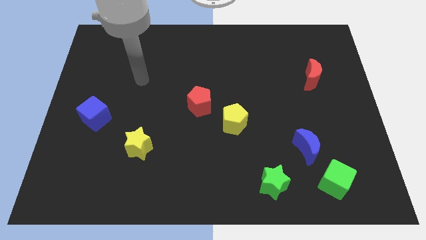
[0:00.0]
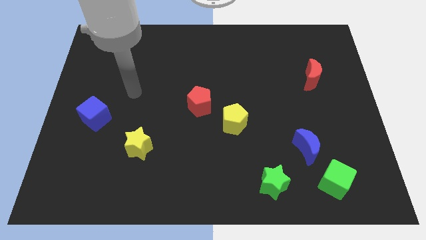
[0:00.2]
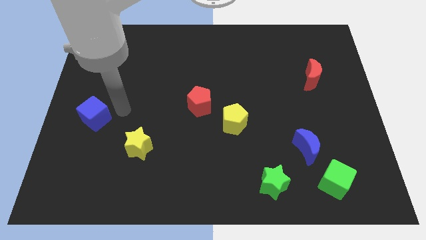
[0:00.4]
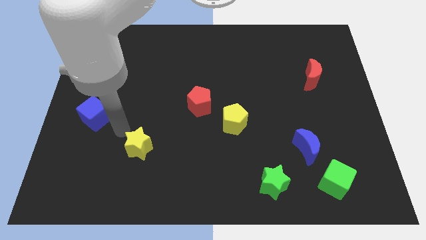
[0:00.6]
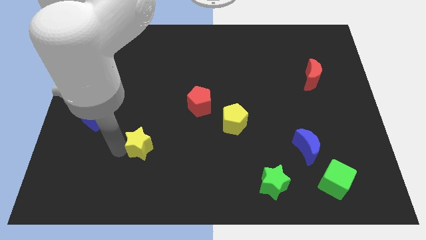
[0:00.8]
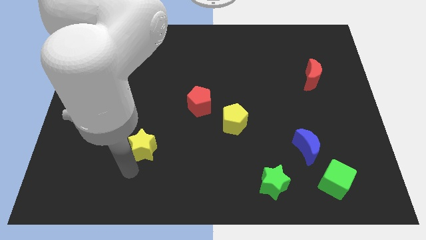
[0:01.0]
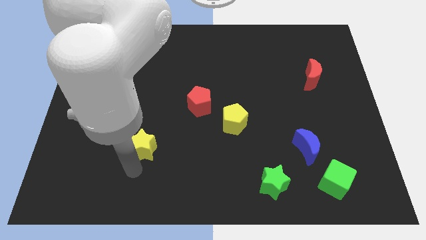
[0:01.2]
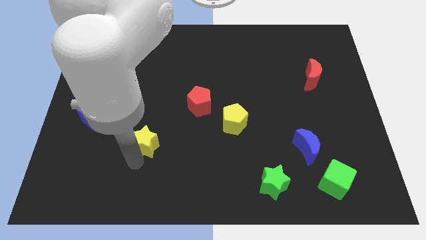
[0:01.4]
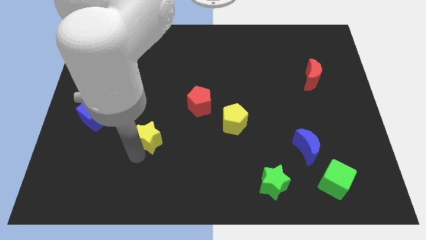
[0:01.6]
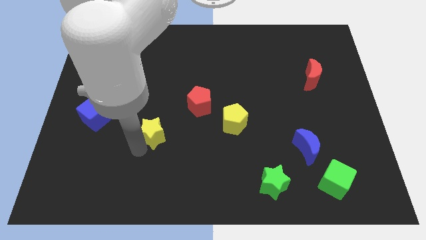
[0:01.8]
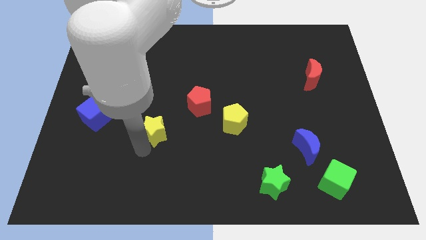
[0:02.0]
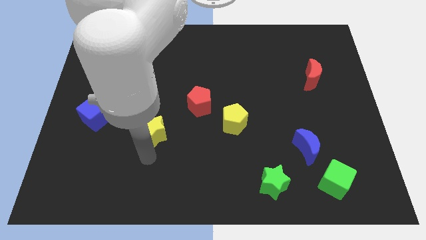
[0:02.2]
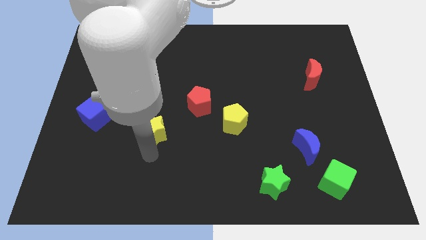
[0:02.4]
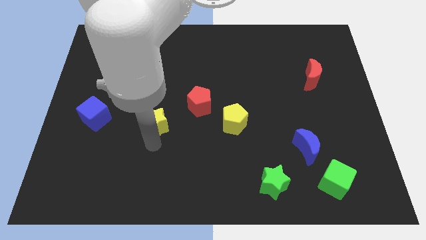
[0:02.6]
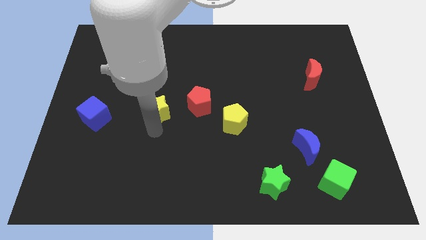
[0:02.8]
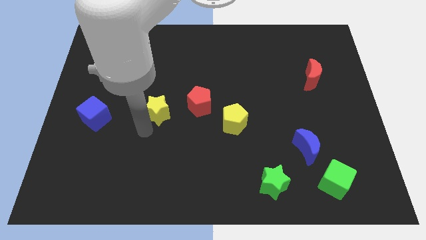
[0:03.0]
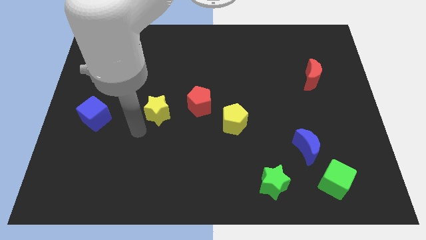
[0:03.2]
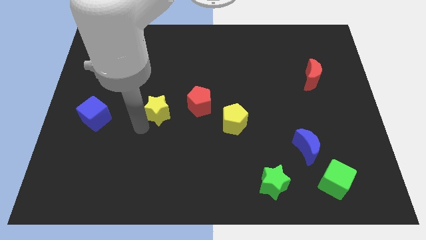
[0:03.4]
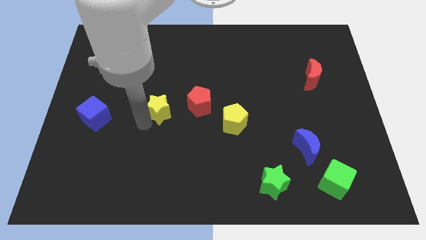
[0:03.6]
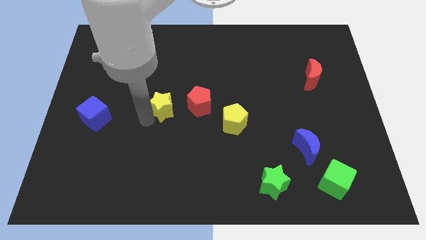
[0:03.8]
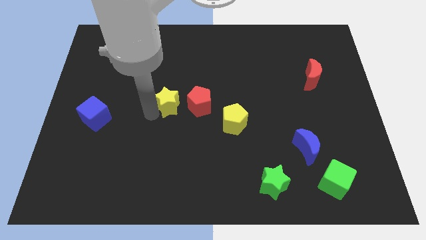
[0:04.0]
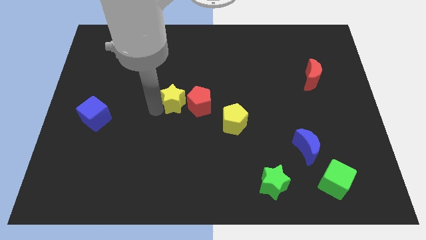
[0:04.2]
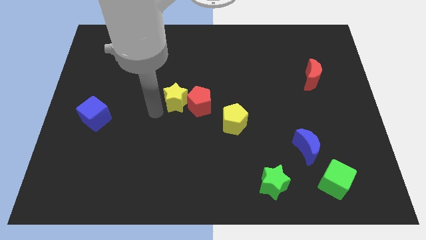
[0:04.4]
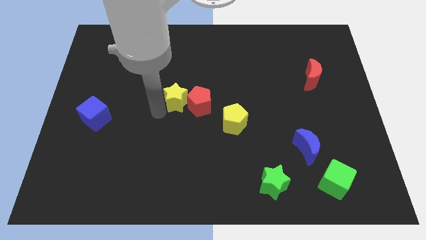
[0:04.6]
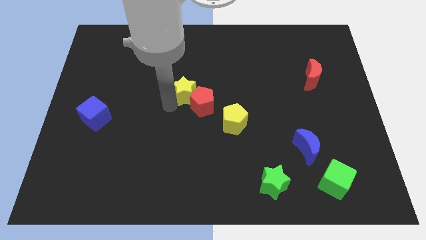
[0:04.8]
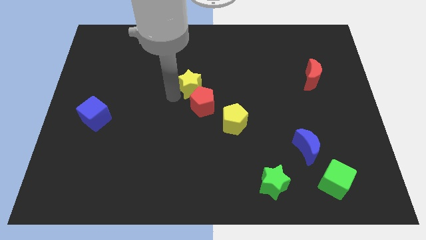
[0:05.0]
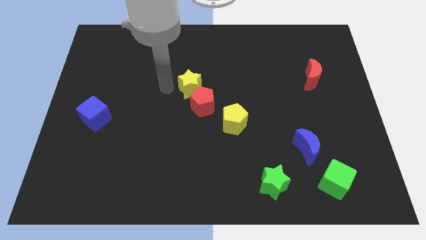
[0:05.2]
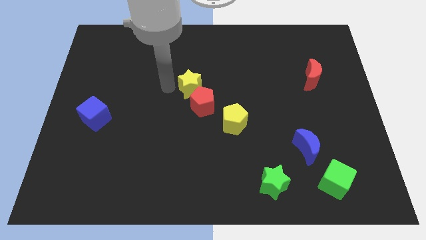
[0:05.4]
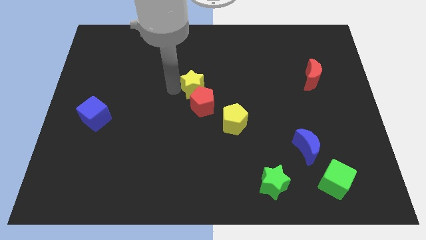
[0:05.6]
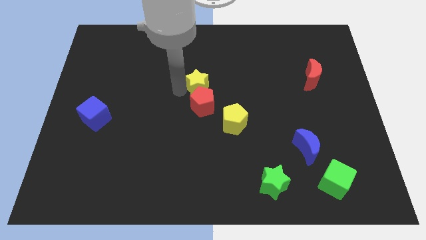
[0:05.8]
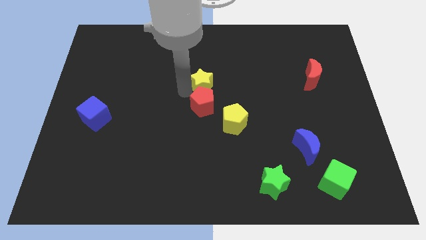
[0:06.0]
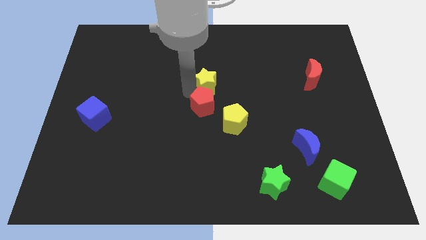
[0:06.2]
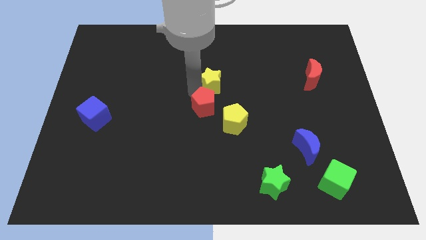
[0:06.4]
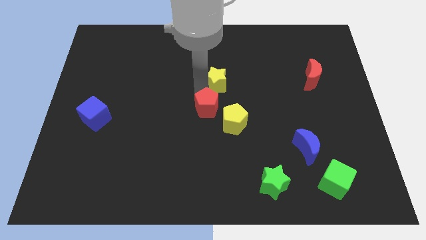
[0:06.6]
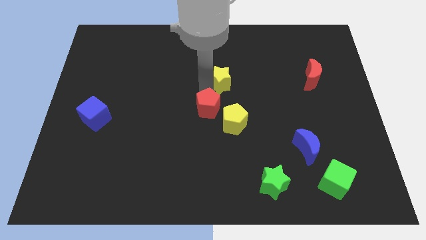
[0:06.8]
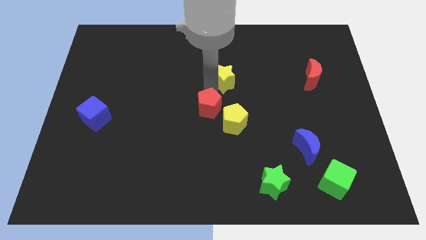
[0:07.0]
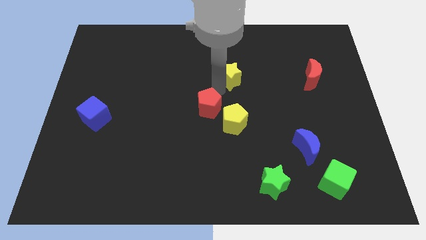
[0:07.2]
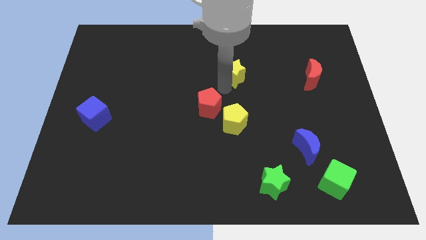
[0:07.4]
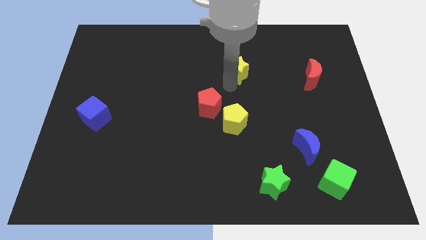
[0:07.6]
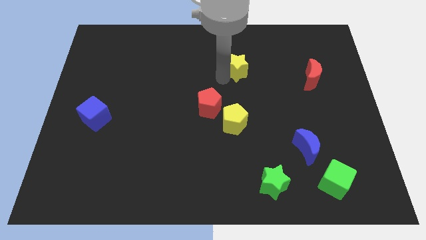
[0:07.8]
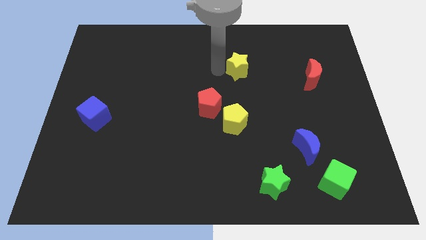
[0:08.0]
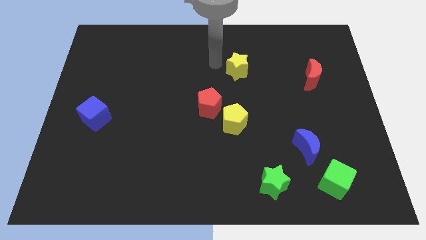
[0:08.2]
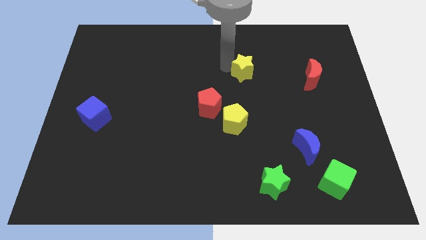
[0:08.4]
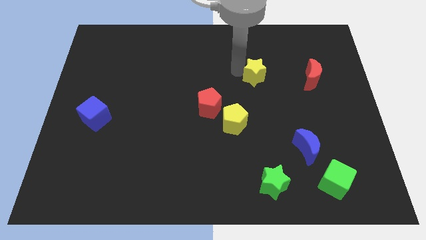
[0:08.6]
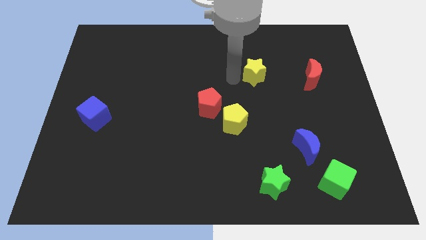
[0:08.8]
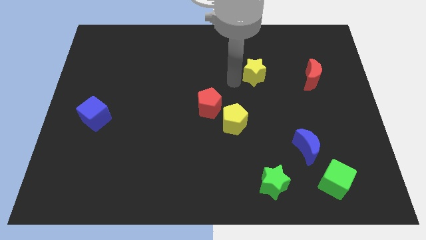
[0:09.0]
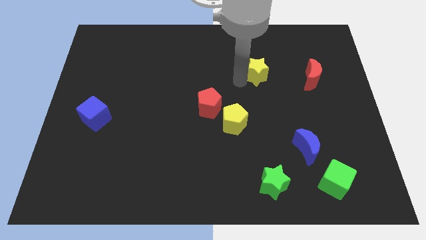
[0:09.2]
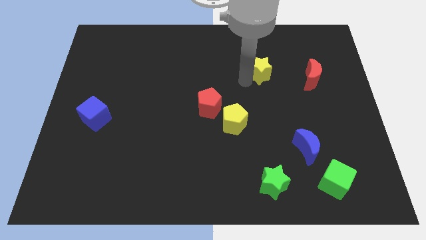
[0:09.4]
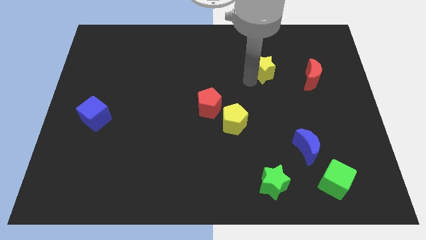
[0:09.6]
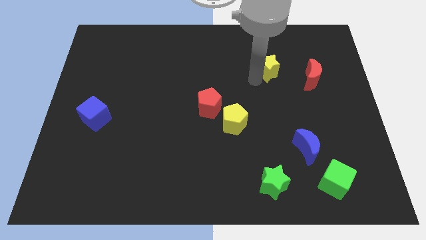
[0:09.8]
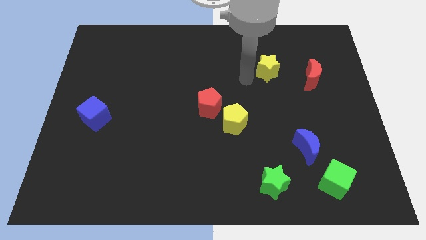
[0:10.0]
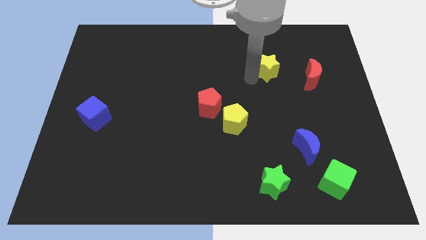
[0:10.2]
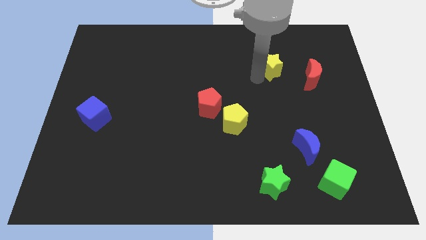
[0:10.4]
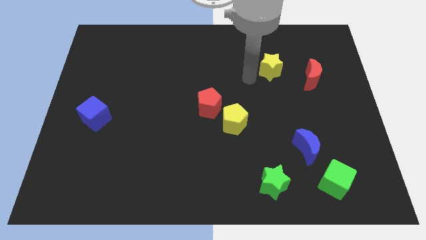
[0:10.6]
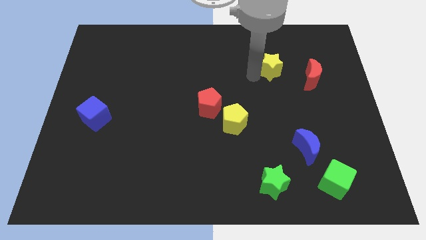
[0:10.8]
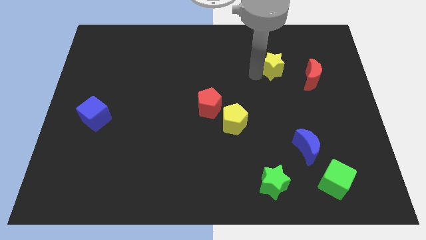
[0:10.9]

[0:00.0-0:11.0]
move the yellow star diagonally up and to the left of the red moon

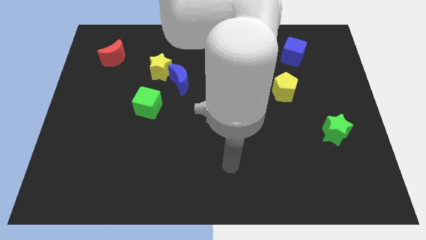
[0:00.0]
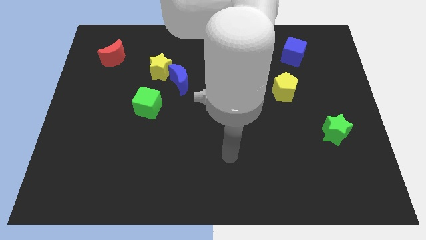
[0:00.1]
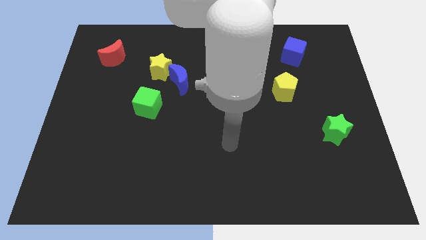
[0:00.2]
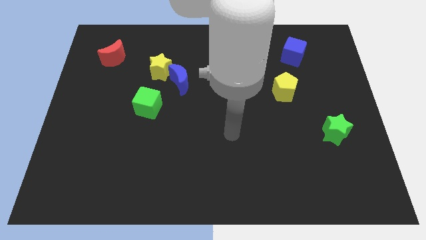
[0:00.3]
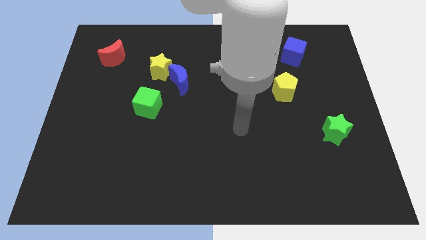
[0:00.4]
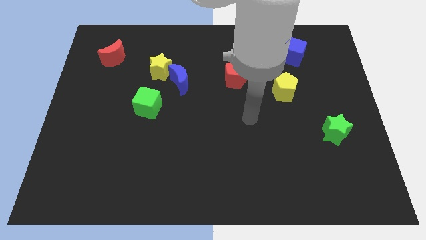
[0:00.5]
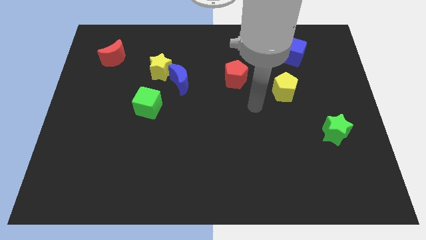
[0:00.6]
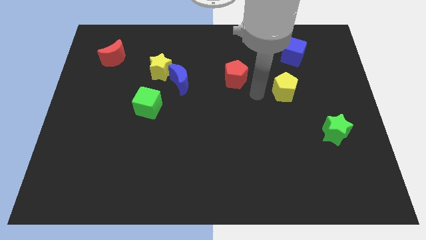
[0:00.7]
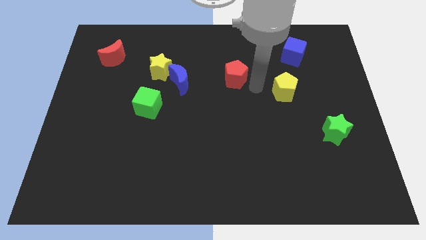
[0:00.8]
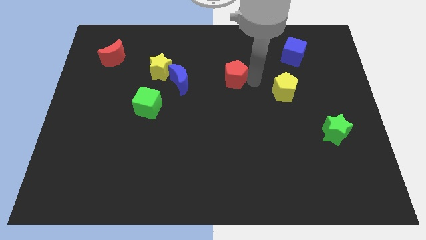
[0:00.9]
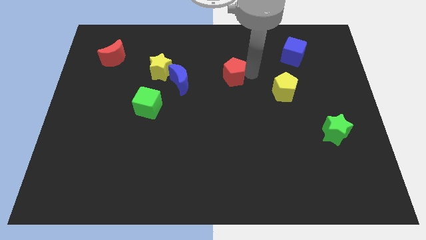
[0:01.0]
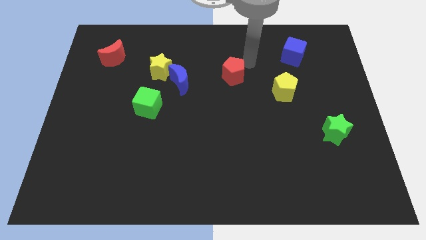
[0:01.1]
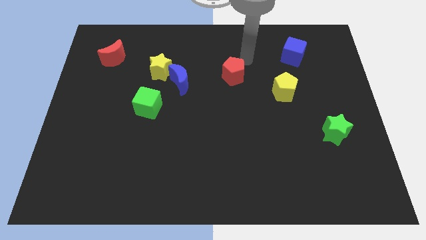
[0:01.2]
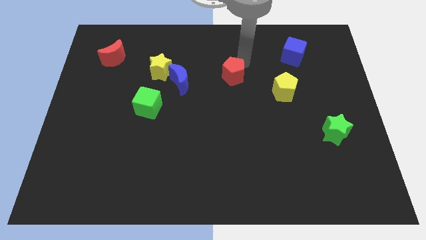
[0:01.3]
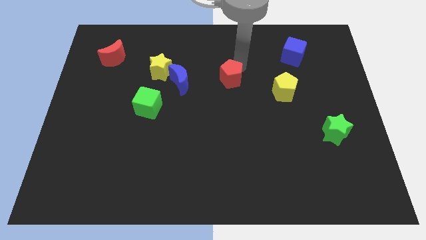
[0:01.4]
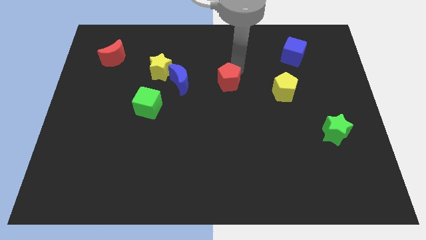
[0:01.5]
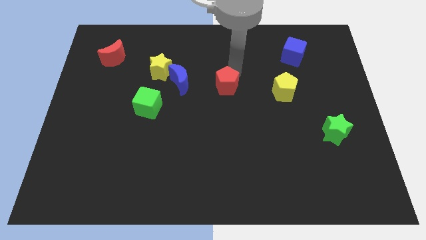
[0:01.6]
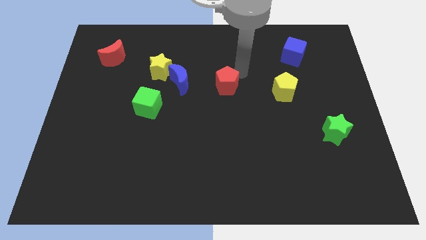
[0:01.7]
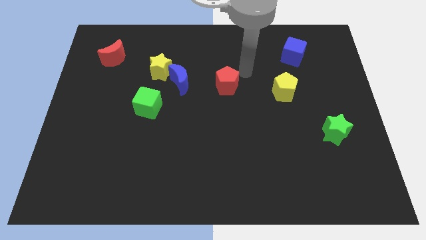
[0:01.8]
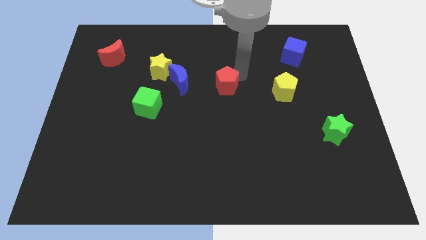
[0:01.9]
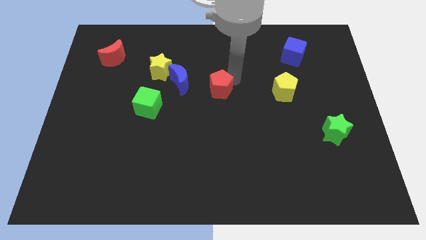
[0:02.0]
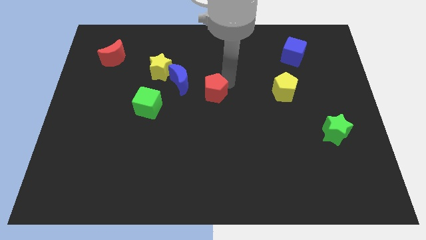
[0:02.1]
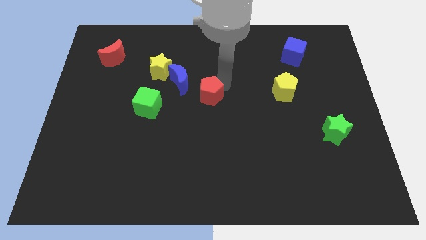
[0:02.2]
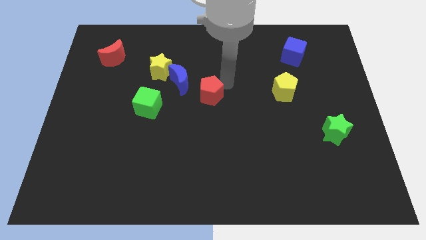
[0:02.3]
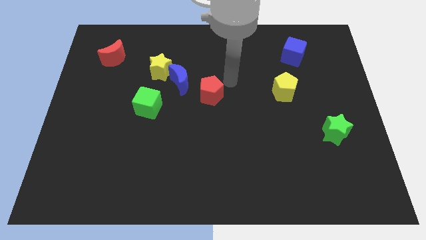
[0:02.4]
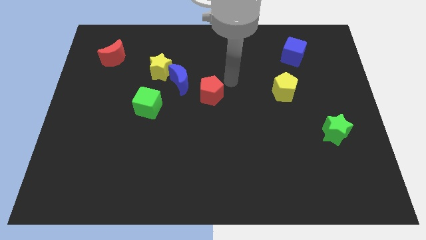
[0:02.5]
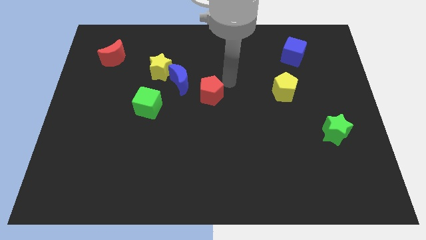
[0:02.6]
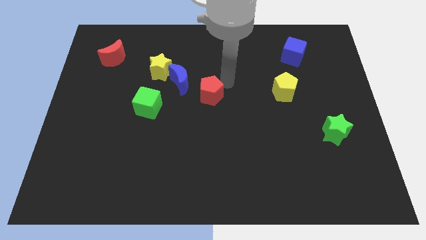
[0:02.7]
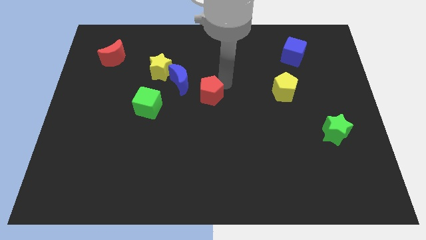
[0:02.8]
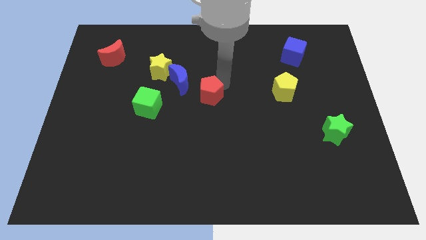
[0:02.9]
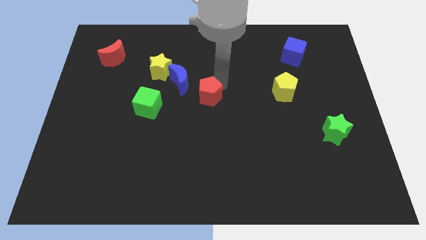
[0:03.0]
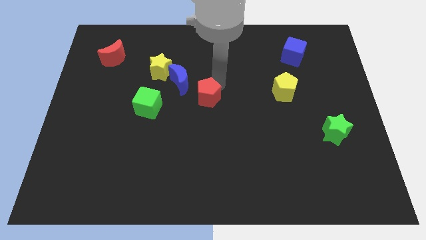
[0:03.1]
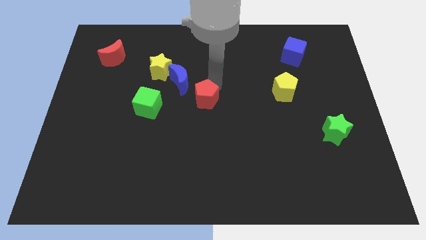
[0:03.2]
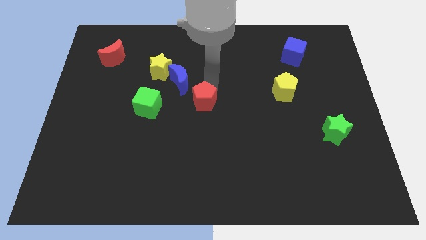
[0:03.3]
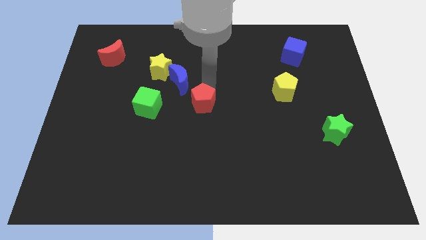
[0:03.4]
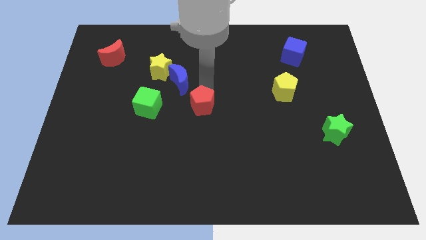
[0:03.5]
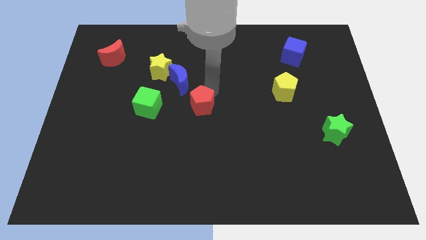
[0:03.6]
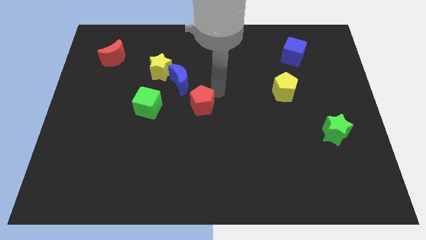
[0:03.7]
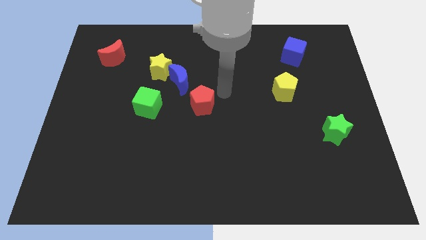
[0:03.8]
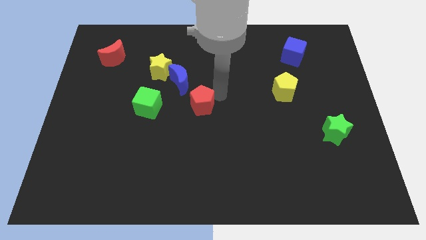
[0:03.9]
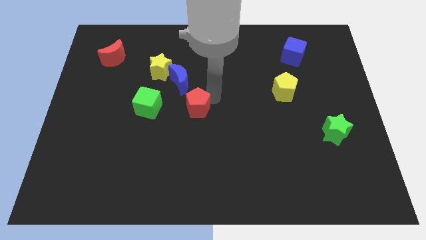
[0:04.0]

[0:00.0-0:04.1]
slide the red pentagon to the bottom of the blue moon
